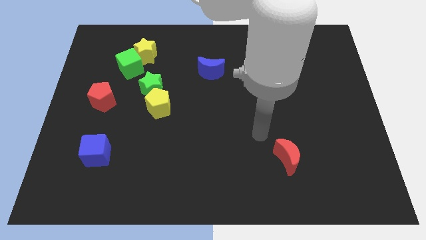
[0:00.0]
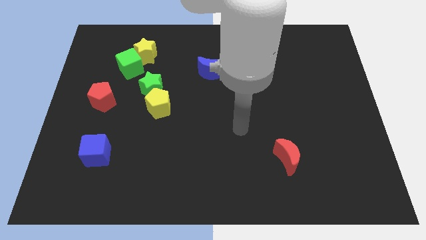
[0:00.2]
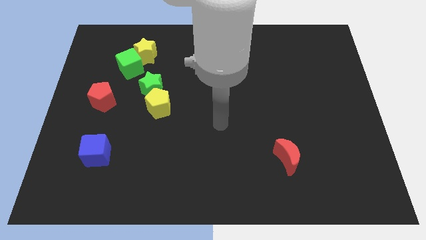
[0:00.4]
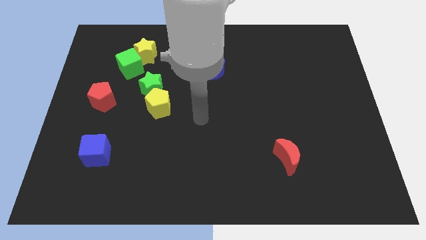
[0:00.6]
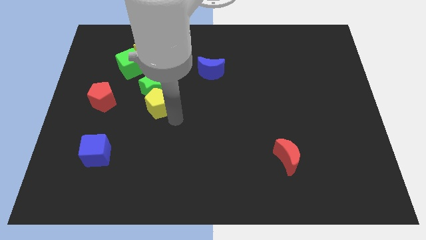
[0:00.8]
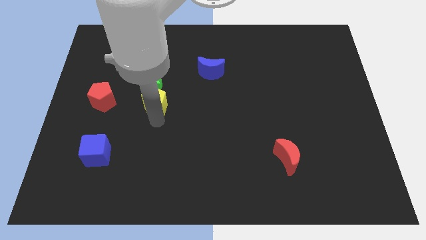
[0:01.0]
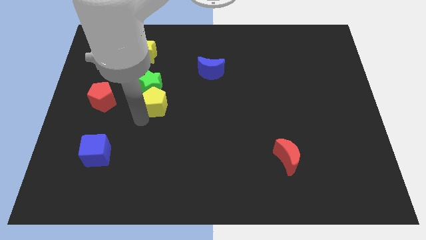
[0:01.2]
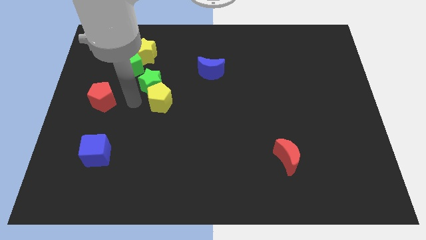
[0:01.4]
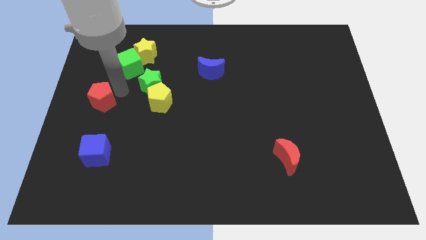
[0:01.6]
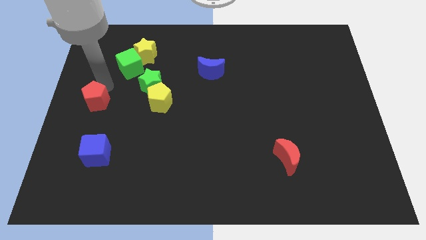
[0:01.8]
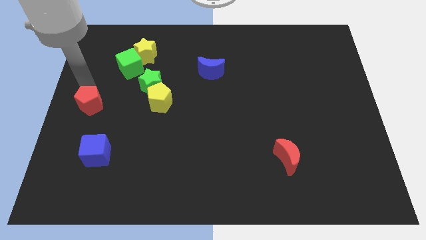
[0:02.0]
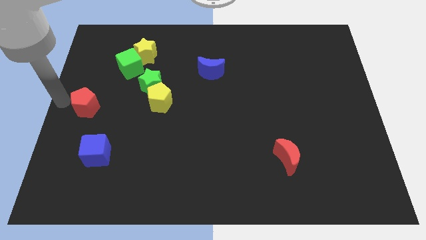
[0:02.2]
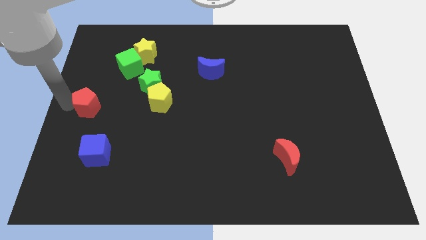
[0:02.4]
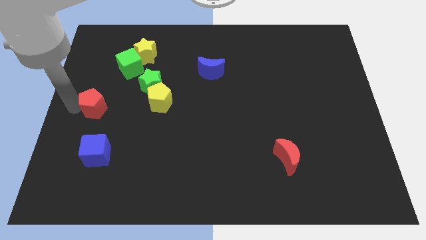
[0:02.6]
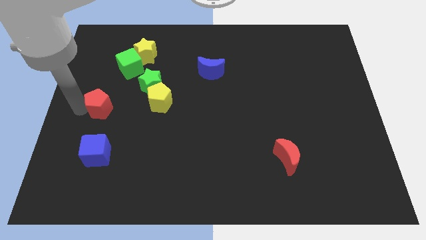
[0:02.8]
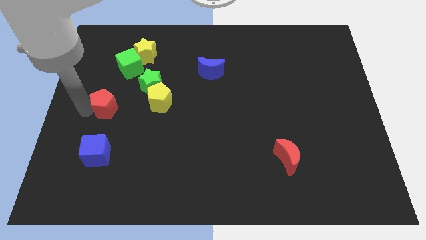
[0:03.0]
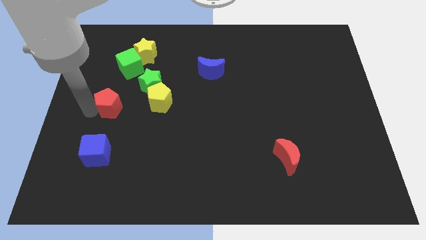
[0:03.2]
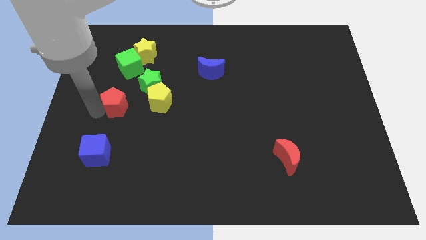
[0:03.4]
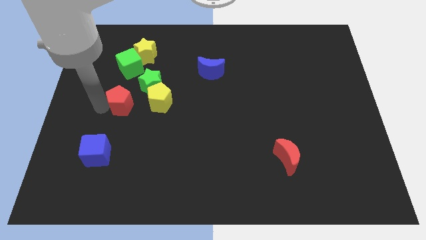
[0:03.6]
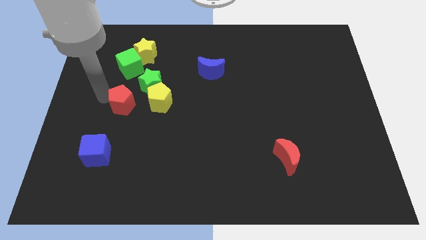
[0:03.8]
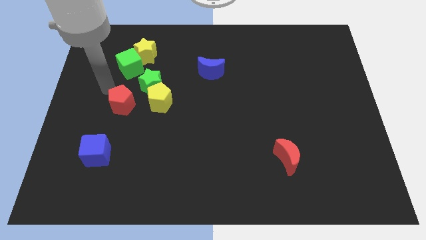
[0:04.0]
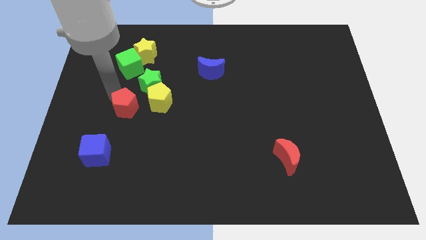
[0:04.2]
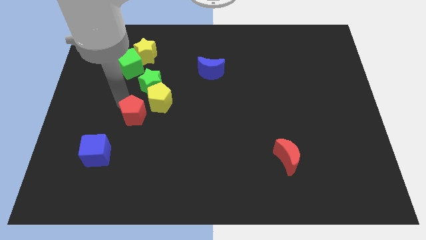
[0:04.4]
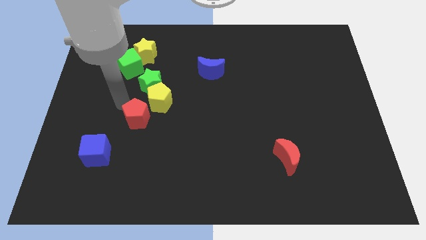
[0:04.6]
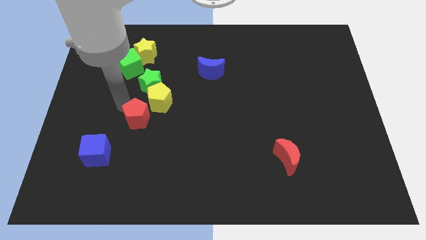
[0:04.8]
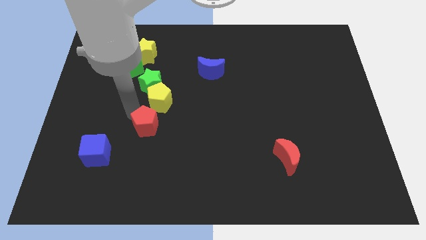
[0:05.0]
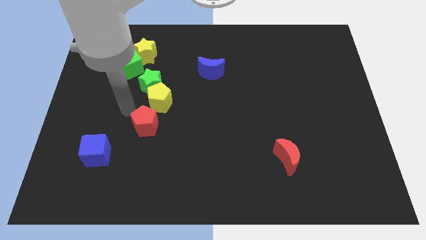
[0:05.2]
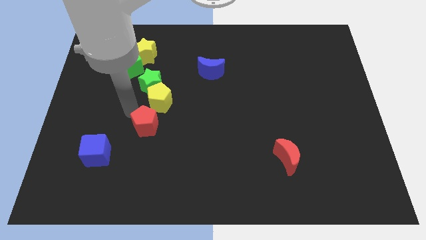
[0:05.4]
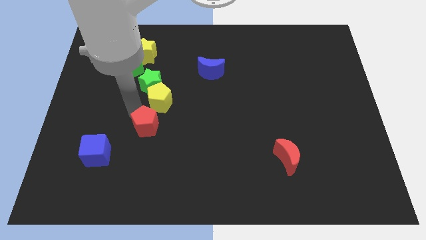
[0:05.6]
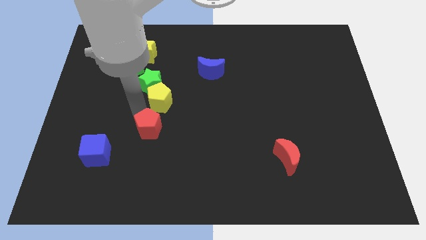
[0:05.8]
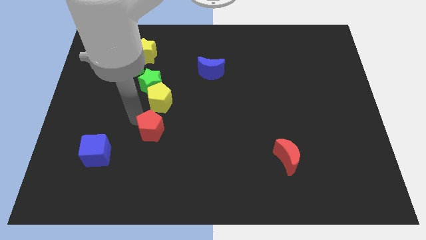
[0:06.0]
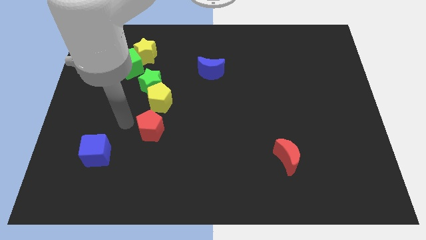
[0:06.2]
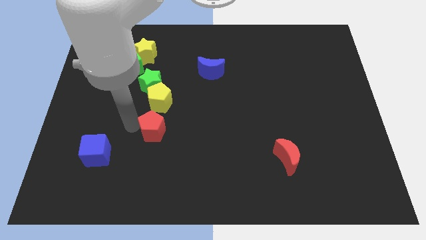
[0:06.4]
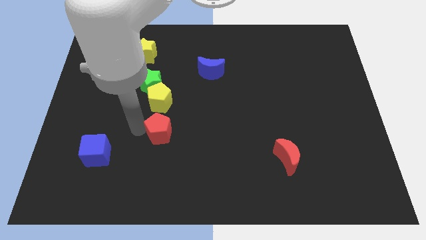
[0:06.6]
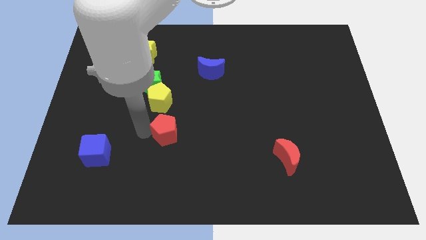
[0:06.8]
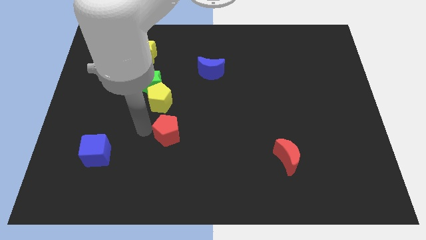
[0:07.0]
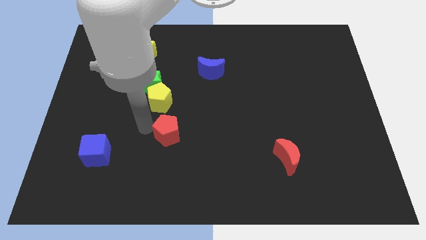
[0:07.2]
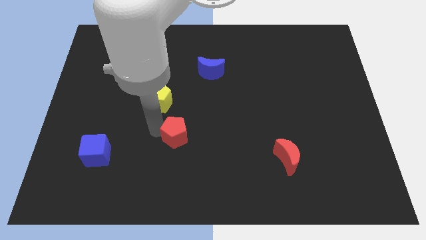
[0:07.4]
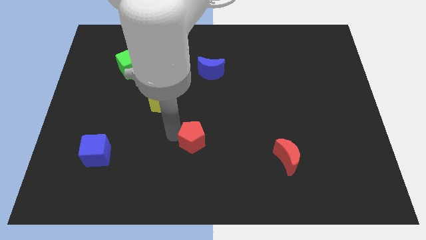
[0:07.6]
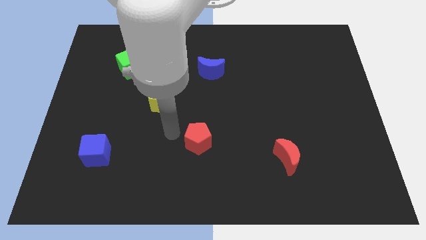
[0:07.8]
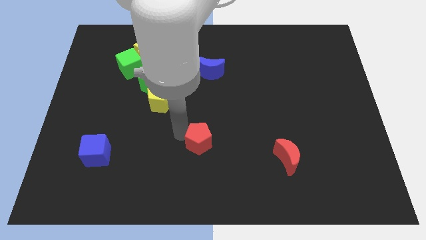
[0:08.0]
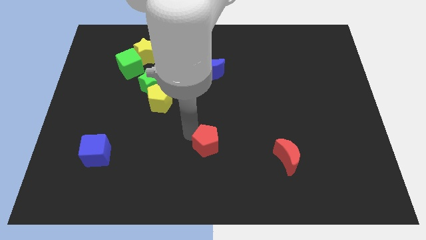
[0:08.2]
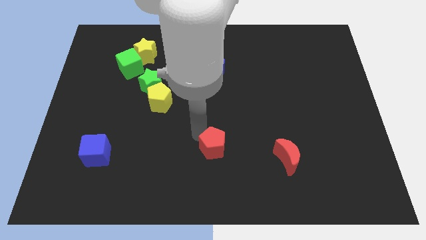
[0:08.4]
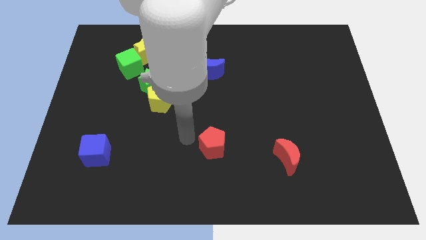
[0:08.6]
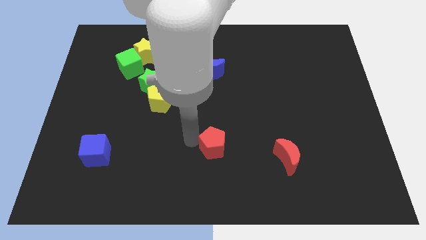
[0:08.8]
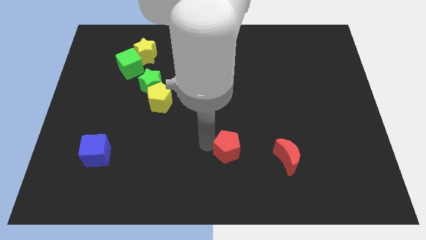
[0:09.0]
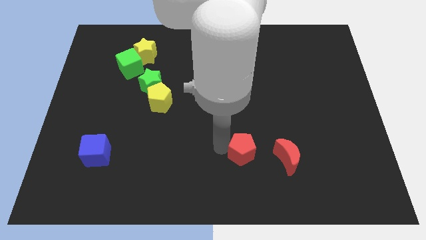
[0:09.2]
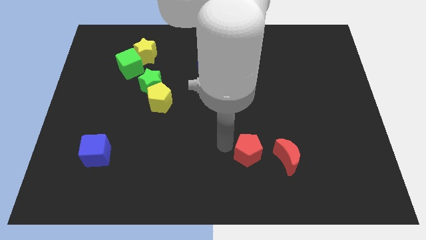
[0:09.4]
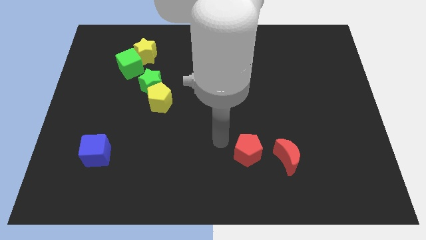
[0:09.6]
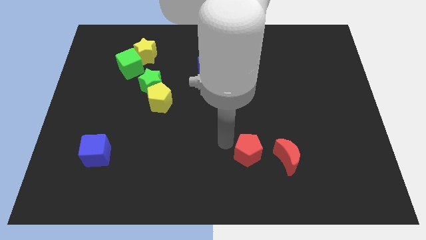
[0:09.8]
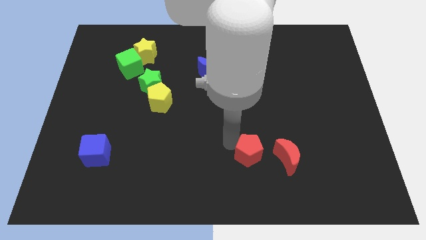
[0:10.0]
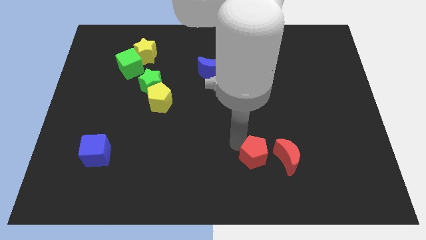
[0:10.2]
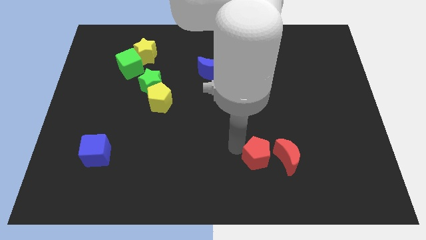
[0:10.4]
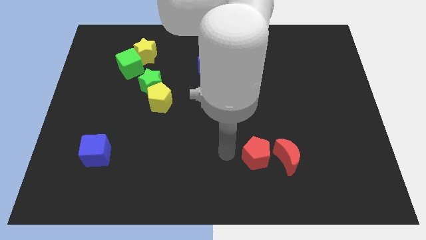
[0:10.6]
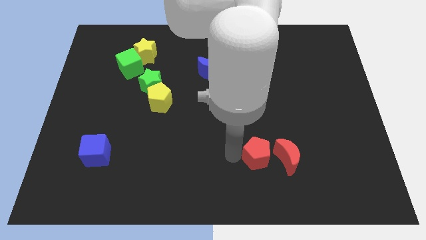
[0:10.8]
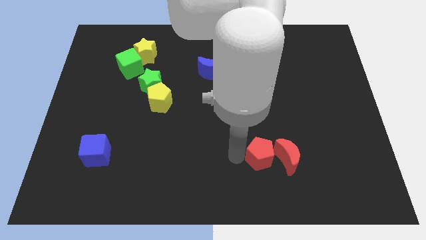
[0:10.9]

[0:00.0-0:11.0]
push the red pentagon next to the red moon

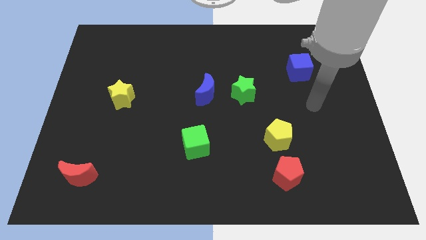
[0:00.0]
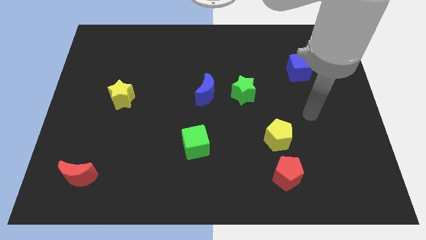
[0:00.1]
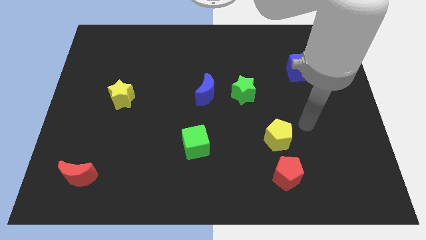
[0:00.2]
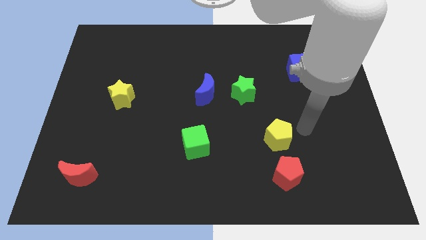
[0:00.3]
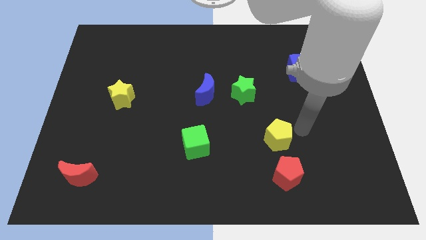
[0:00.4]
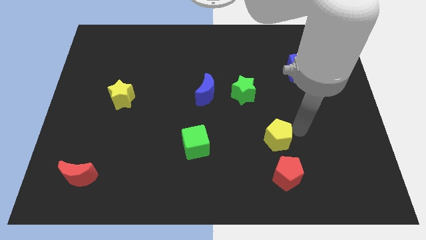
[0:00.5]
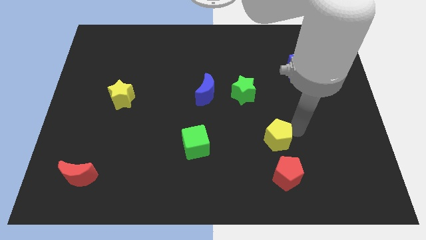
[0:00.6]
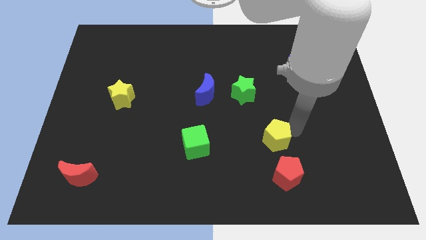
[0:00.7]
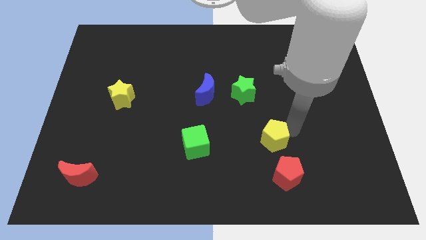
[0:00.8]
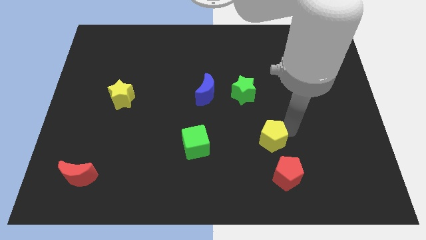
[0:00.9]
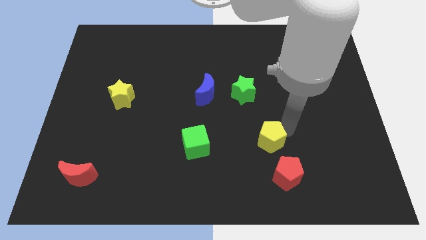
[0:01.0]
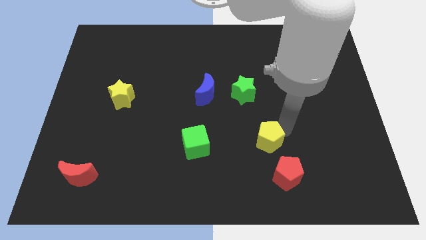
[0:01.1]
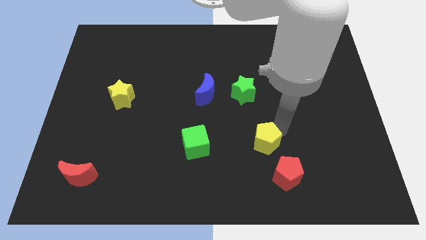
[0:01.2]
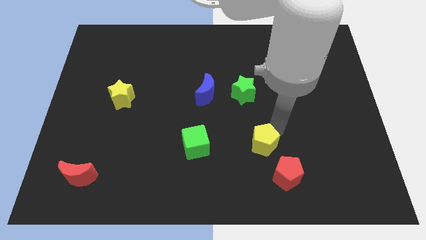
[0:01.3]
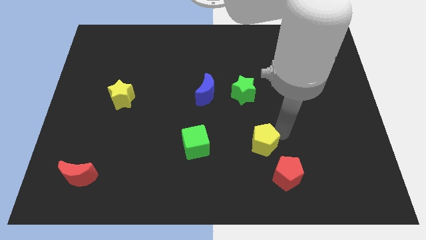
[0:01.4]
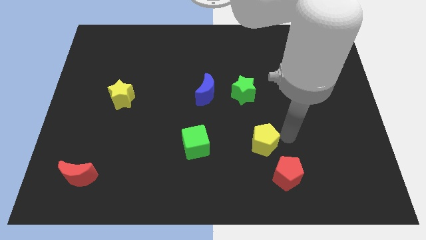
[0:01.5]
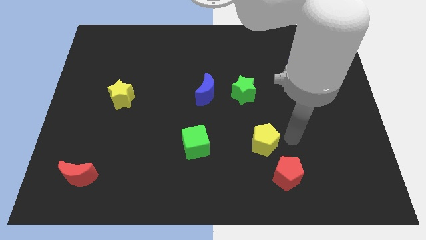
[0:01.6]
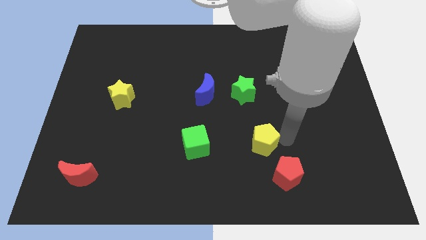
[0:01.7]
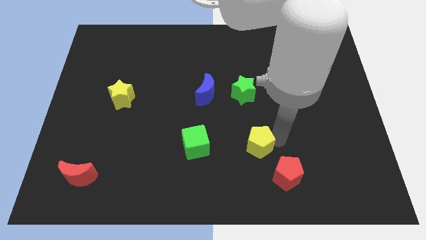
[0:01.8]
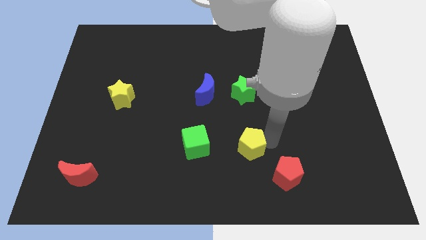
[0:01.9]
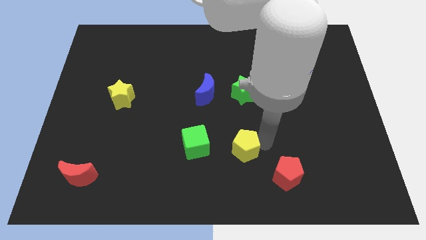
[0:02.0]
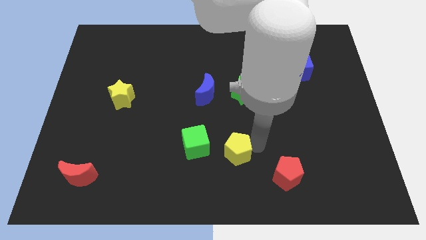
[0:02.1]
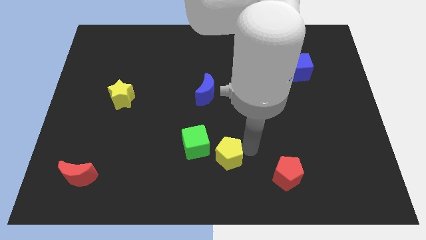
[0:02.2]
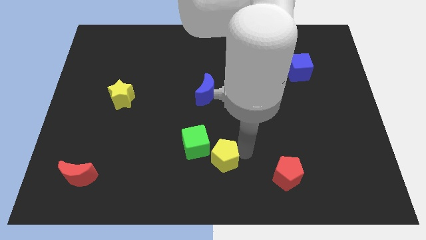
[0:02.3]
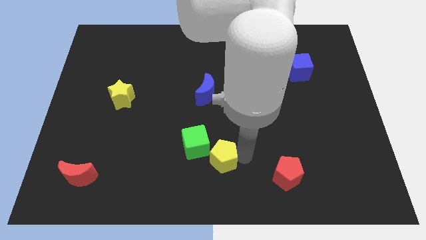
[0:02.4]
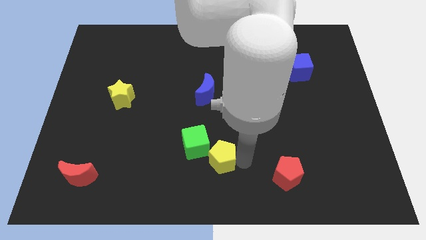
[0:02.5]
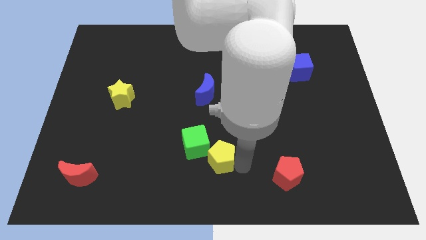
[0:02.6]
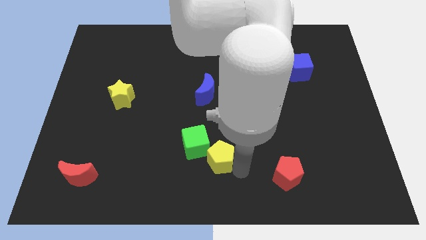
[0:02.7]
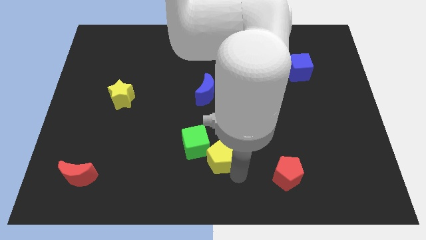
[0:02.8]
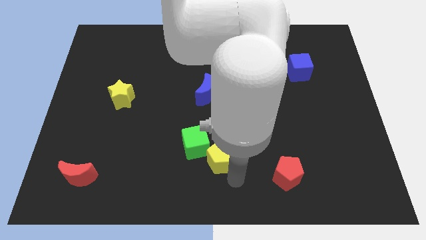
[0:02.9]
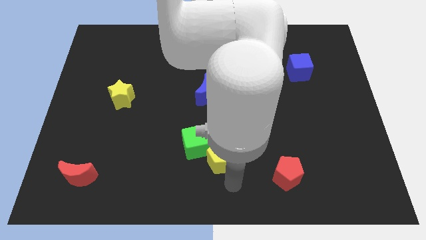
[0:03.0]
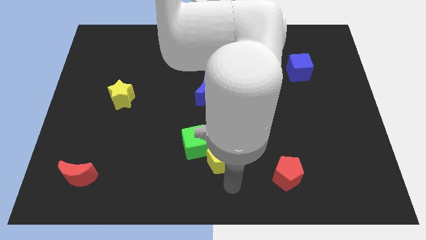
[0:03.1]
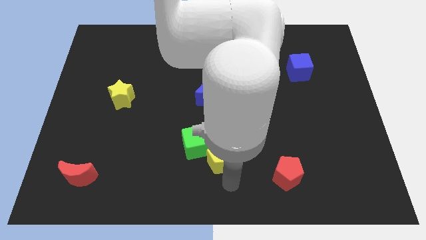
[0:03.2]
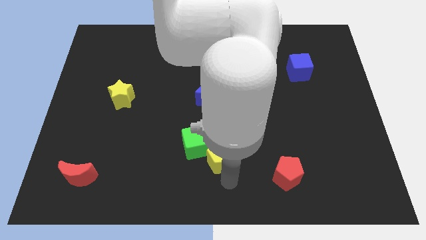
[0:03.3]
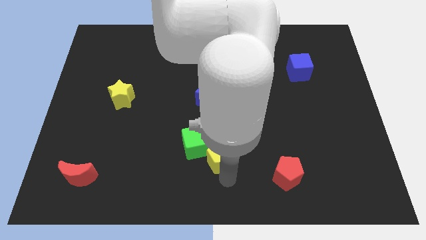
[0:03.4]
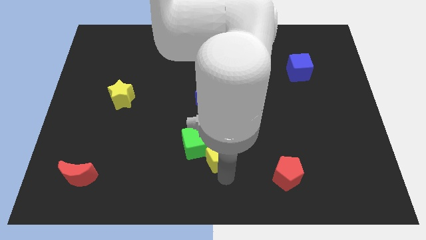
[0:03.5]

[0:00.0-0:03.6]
push the yellow pentagon next to the green cube
